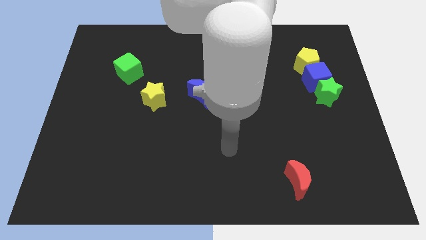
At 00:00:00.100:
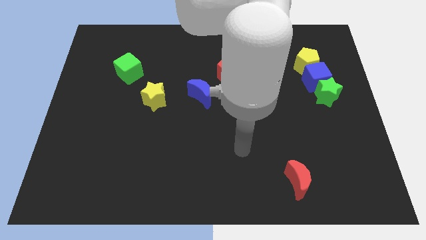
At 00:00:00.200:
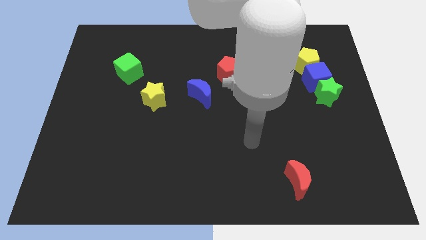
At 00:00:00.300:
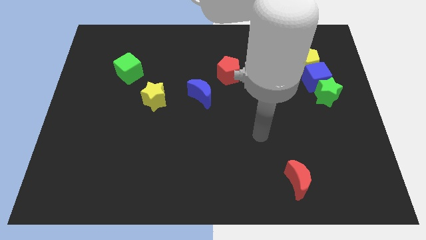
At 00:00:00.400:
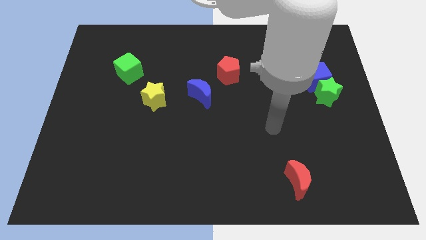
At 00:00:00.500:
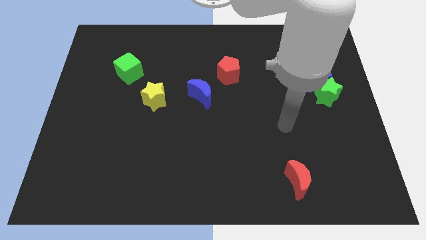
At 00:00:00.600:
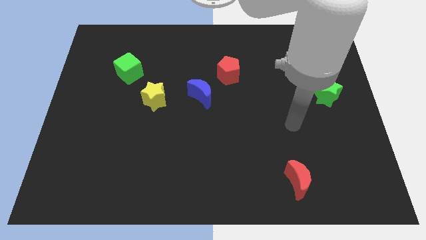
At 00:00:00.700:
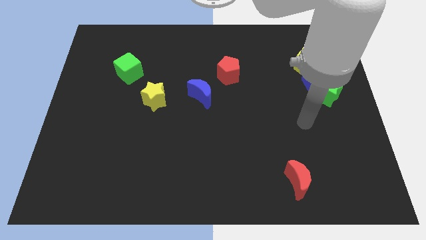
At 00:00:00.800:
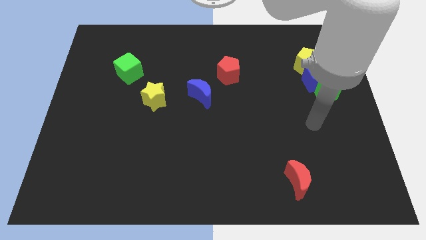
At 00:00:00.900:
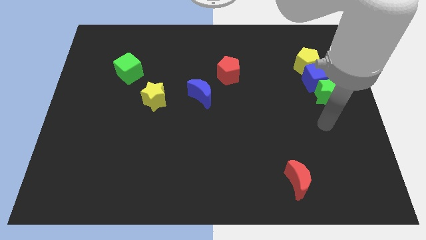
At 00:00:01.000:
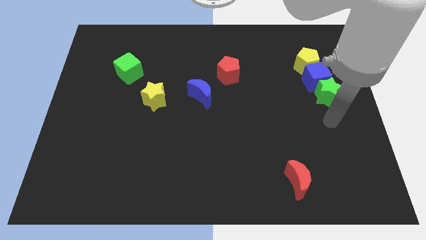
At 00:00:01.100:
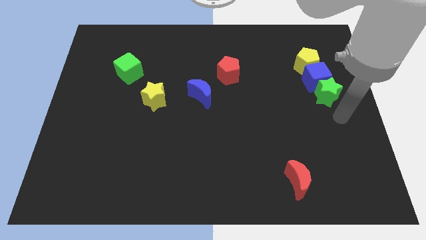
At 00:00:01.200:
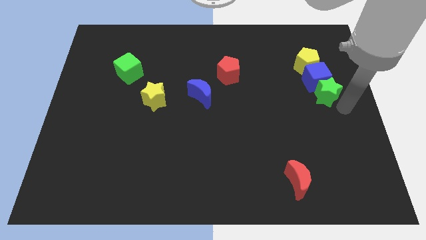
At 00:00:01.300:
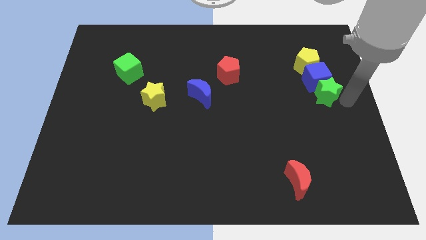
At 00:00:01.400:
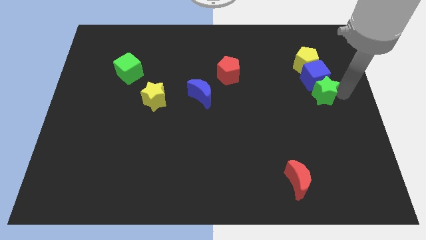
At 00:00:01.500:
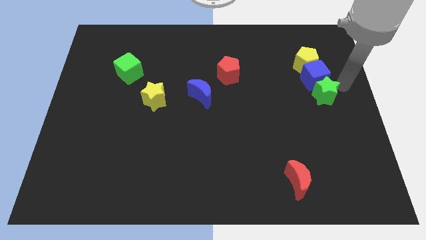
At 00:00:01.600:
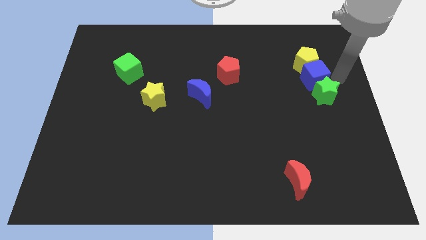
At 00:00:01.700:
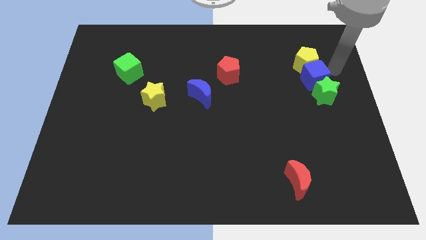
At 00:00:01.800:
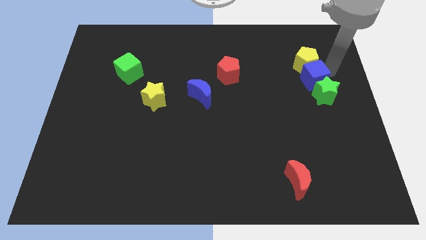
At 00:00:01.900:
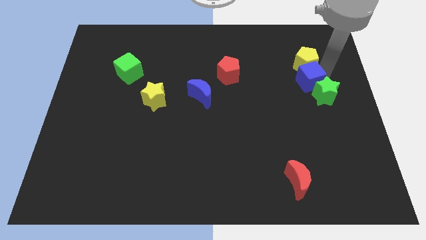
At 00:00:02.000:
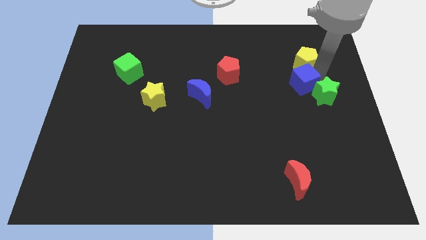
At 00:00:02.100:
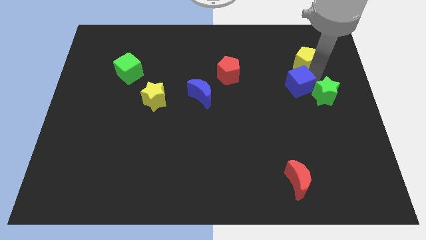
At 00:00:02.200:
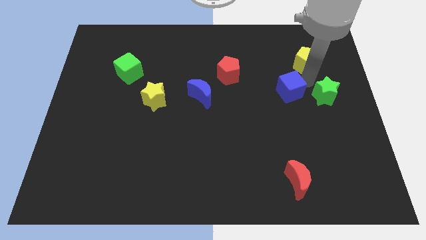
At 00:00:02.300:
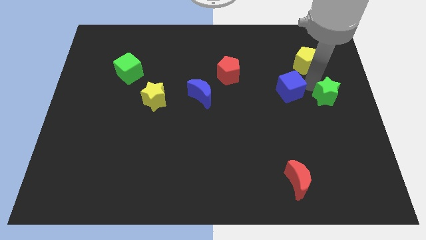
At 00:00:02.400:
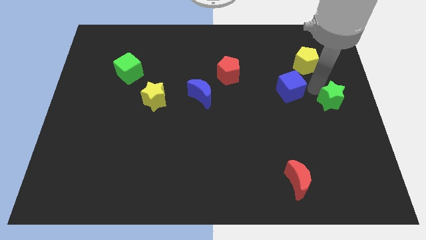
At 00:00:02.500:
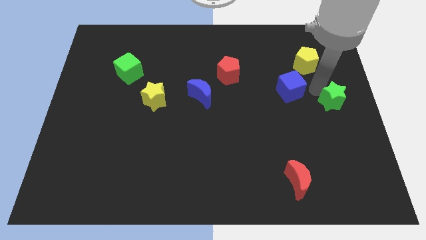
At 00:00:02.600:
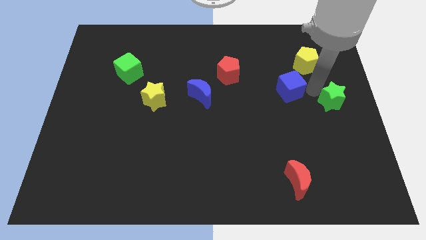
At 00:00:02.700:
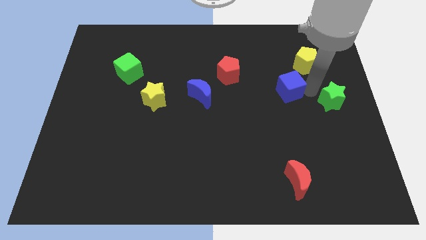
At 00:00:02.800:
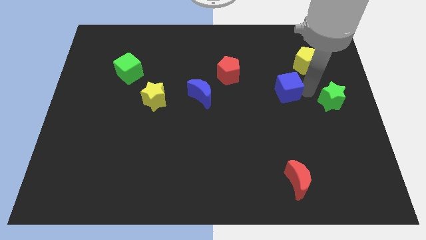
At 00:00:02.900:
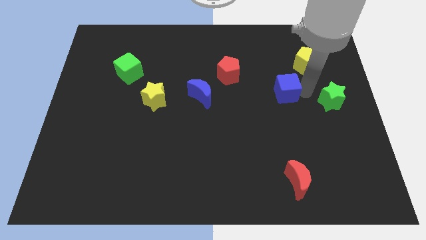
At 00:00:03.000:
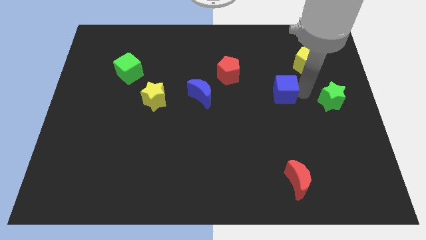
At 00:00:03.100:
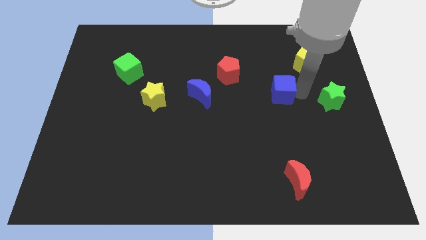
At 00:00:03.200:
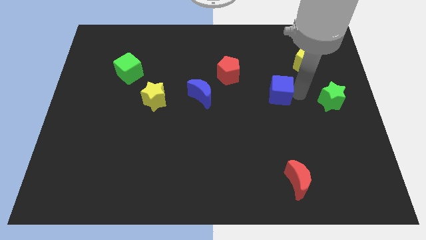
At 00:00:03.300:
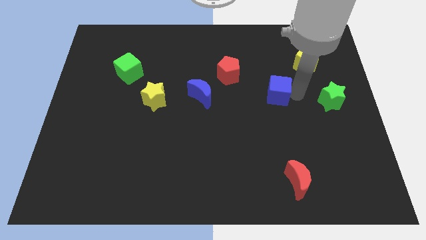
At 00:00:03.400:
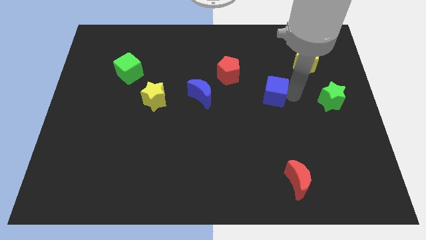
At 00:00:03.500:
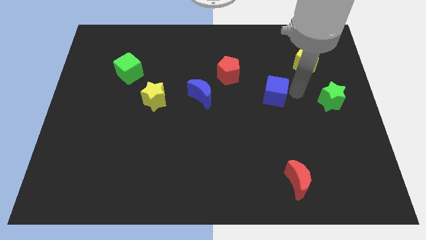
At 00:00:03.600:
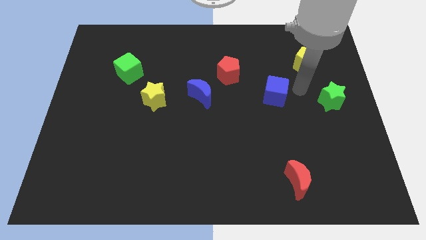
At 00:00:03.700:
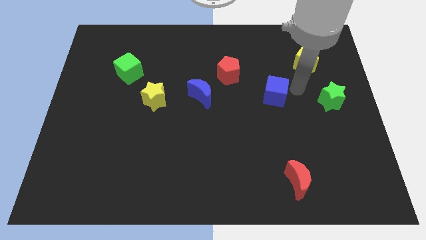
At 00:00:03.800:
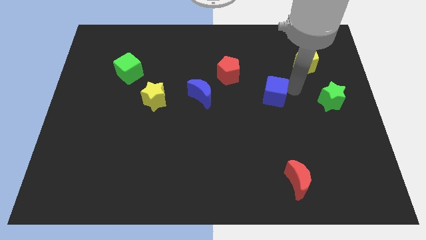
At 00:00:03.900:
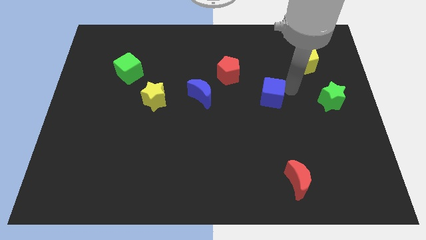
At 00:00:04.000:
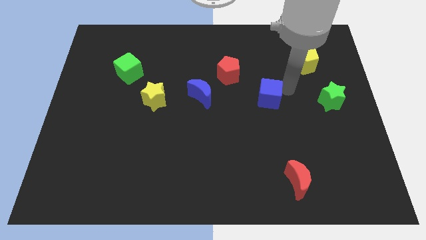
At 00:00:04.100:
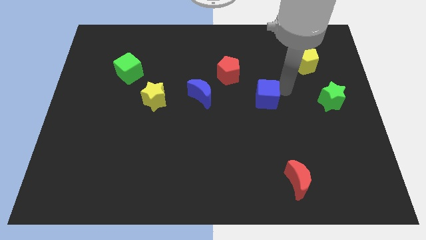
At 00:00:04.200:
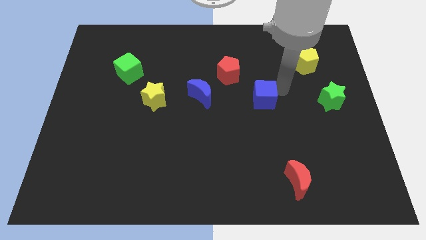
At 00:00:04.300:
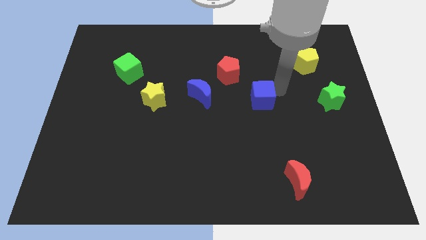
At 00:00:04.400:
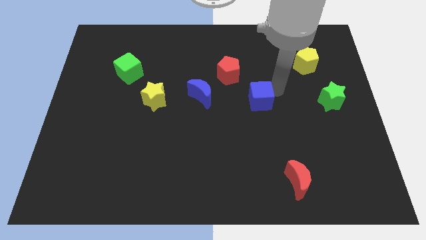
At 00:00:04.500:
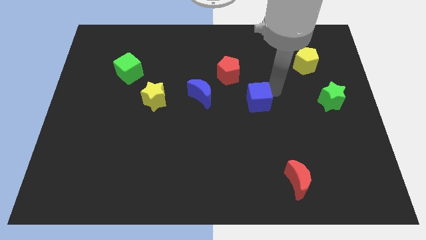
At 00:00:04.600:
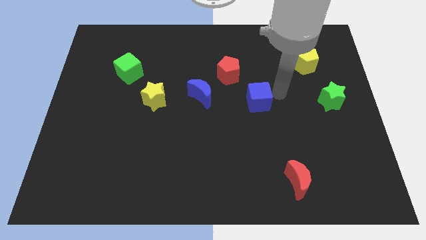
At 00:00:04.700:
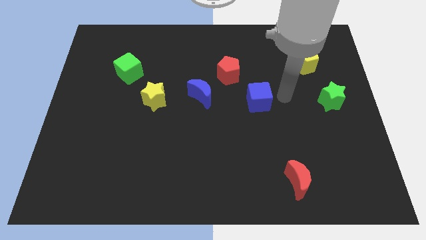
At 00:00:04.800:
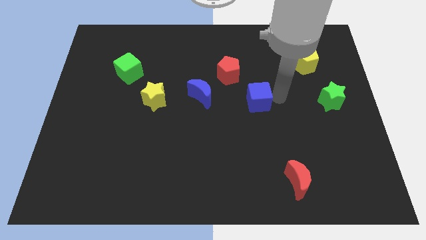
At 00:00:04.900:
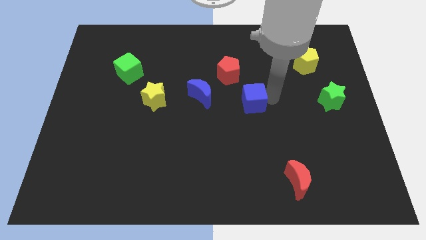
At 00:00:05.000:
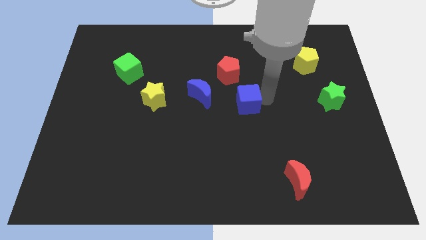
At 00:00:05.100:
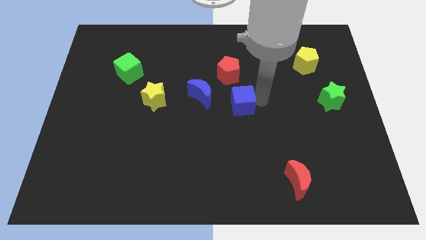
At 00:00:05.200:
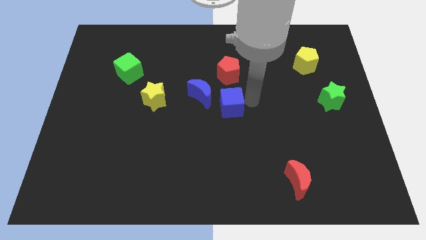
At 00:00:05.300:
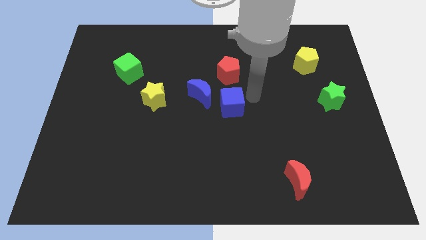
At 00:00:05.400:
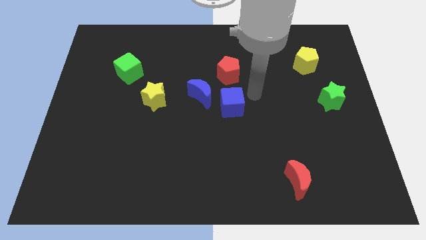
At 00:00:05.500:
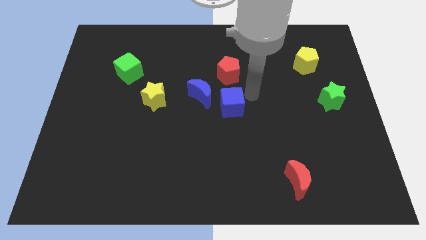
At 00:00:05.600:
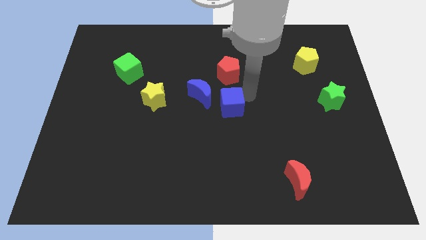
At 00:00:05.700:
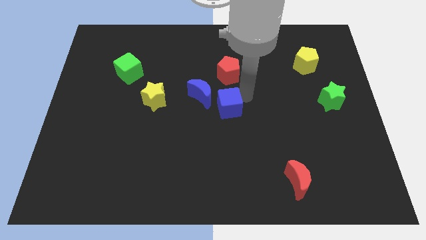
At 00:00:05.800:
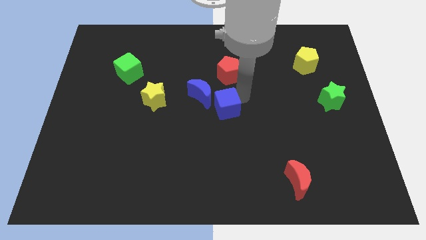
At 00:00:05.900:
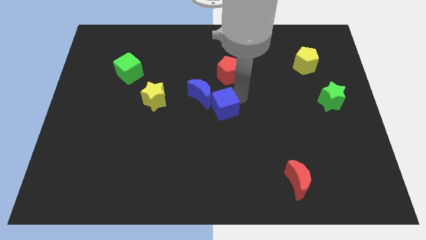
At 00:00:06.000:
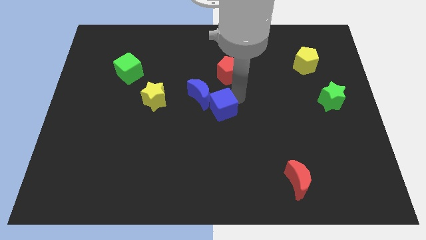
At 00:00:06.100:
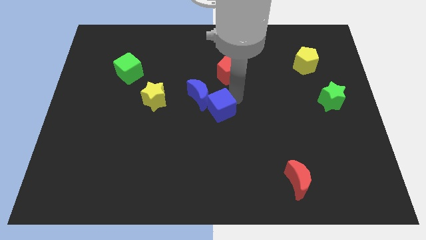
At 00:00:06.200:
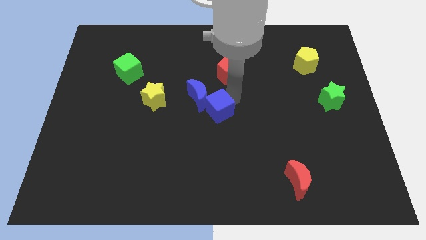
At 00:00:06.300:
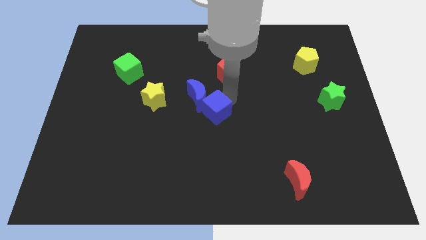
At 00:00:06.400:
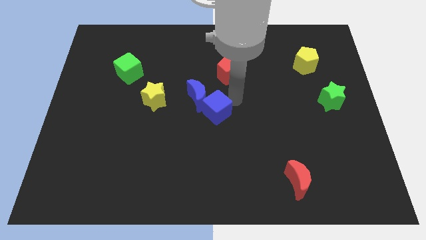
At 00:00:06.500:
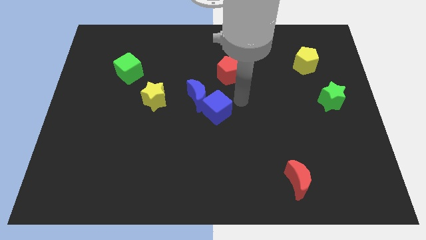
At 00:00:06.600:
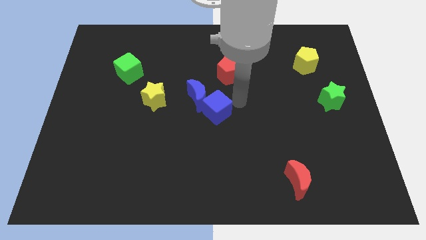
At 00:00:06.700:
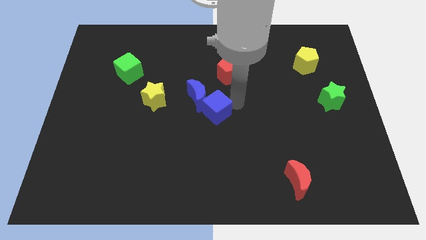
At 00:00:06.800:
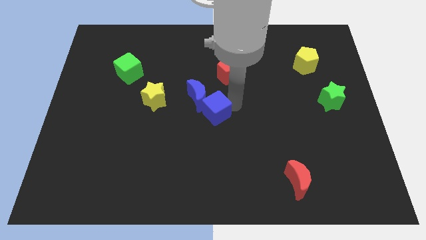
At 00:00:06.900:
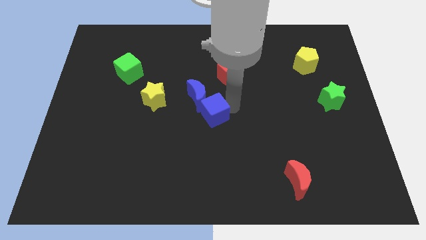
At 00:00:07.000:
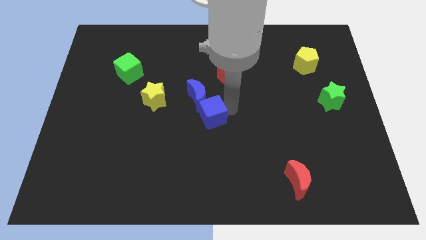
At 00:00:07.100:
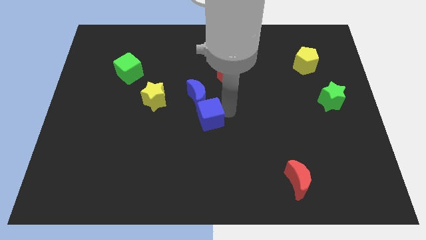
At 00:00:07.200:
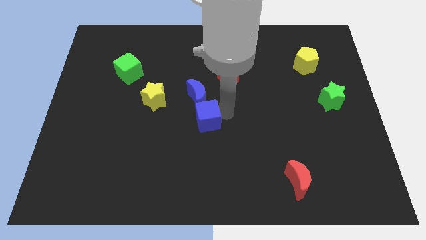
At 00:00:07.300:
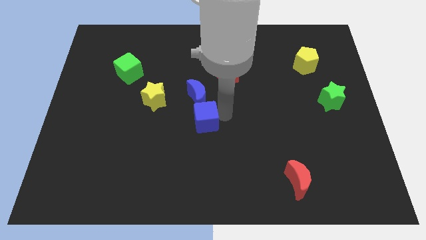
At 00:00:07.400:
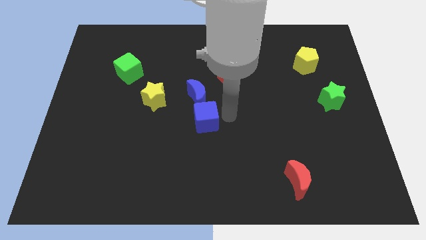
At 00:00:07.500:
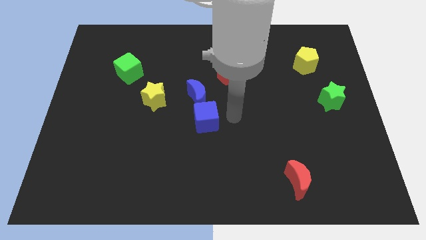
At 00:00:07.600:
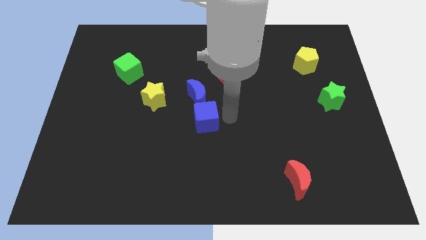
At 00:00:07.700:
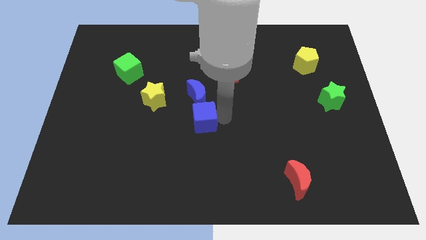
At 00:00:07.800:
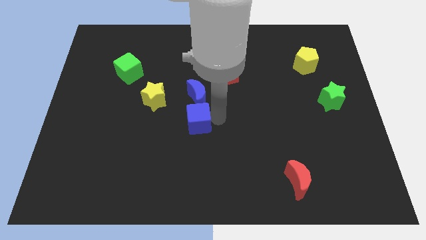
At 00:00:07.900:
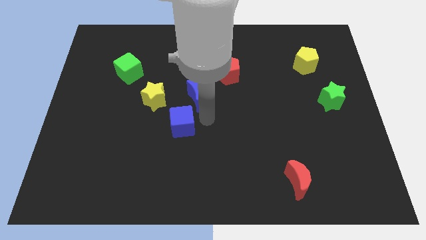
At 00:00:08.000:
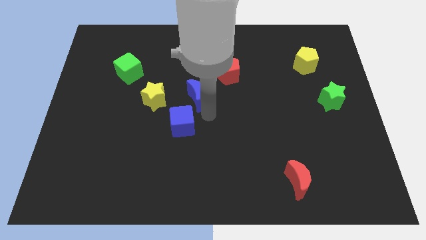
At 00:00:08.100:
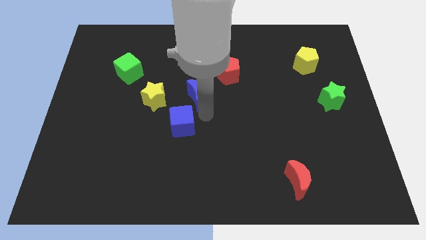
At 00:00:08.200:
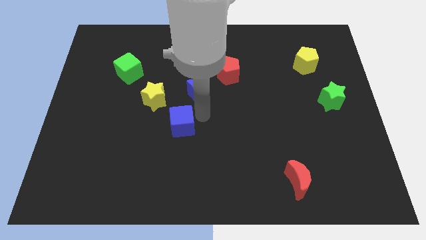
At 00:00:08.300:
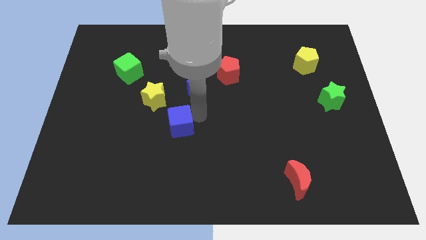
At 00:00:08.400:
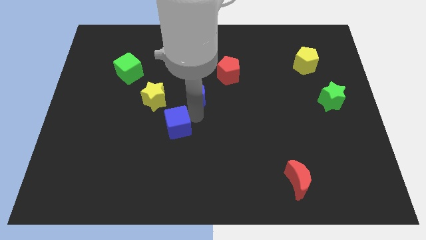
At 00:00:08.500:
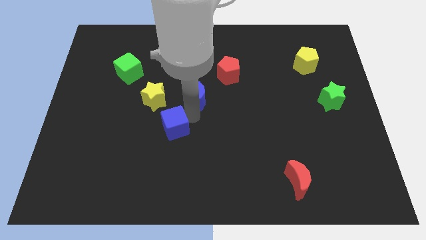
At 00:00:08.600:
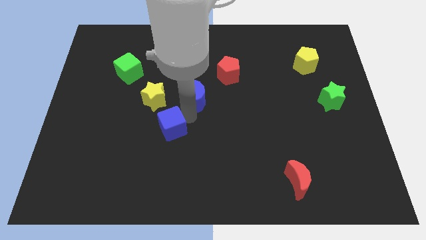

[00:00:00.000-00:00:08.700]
move the blue cube below the yellow star
